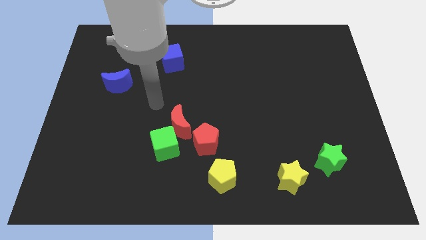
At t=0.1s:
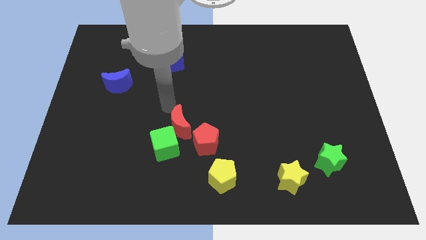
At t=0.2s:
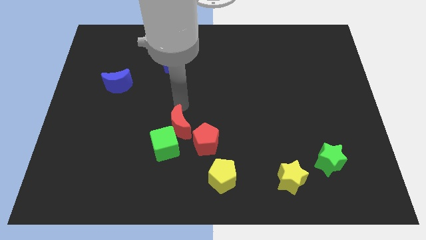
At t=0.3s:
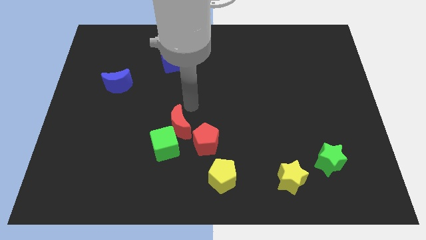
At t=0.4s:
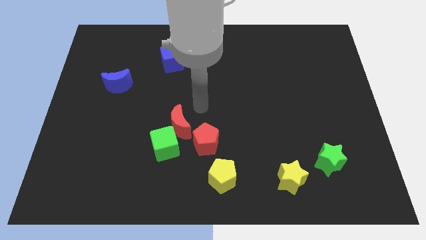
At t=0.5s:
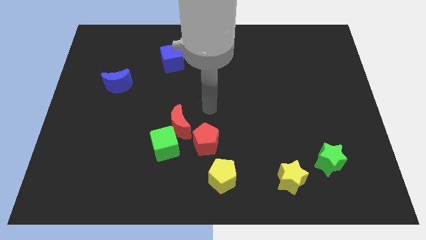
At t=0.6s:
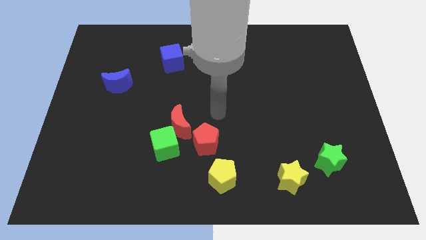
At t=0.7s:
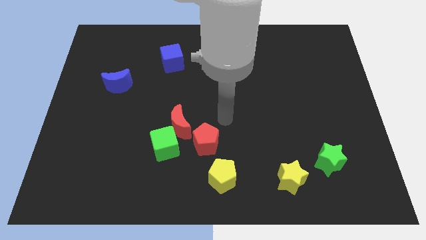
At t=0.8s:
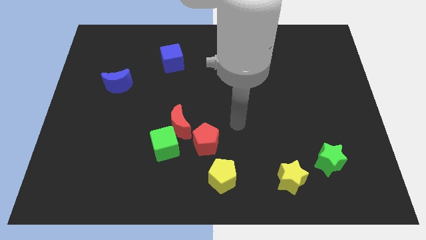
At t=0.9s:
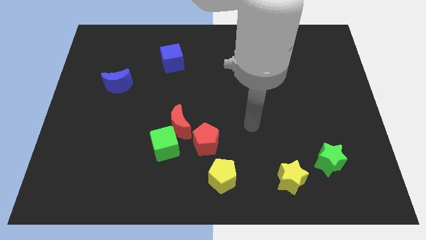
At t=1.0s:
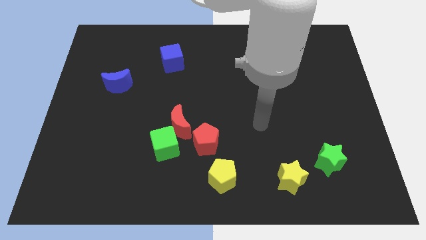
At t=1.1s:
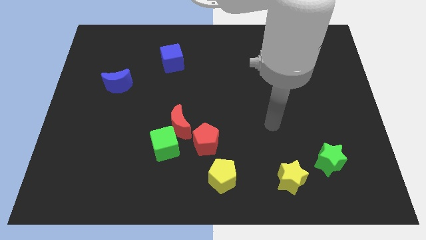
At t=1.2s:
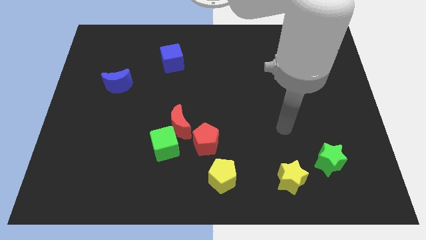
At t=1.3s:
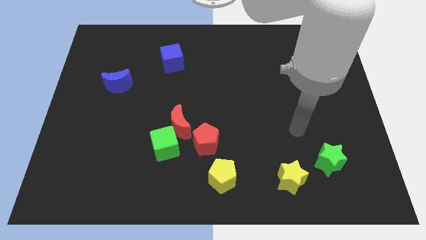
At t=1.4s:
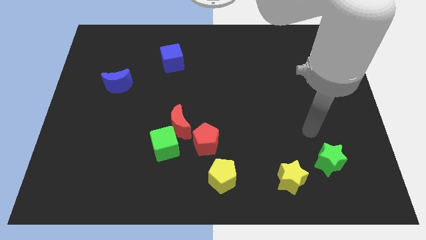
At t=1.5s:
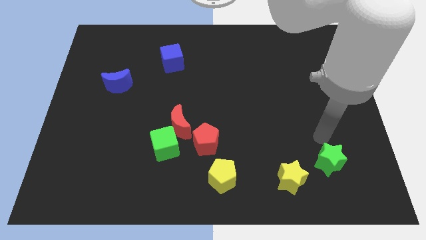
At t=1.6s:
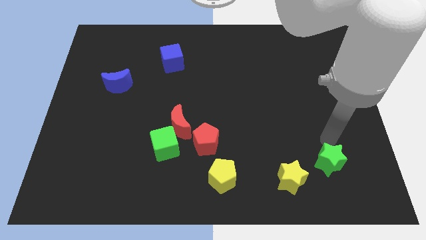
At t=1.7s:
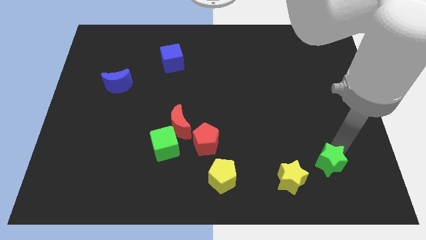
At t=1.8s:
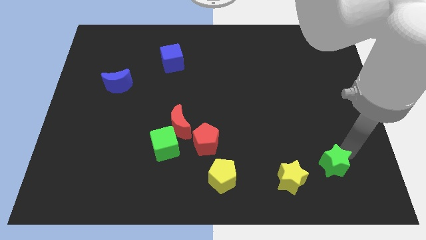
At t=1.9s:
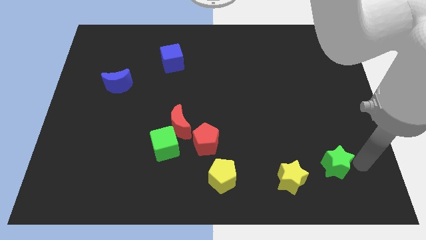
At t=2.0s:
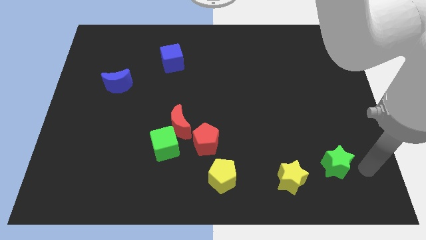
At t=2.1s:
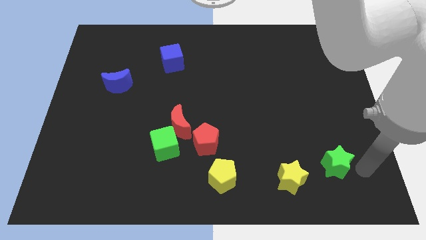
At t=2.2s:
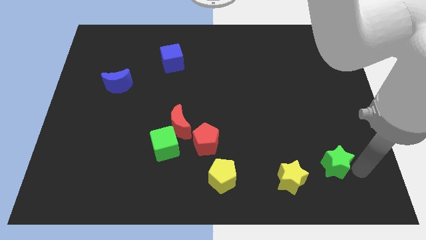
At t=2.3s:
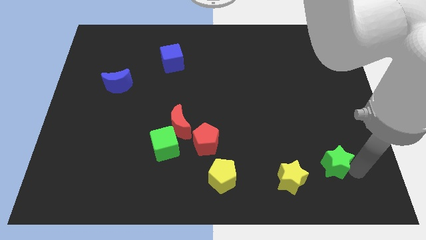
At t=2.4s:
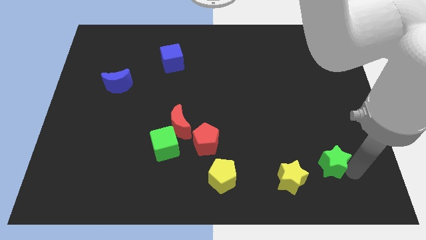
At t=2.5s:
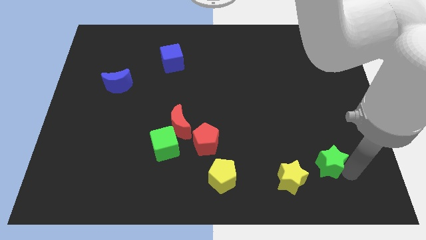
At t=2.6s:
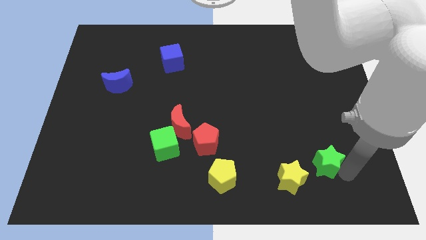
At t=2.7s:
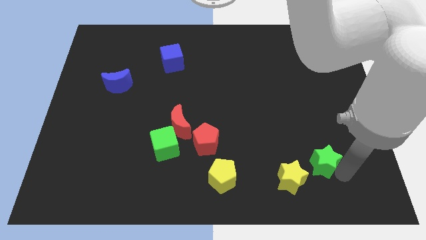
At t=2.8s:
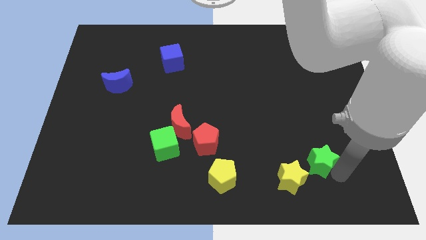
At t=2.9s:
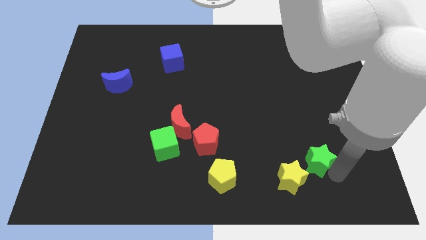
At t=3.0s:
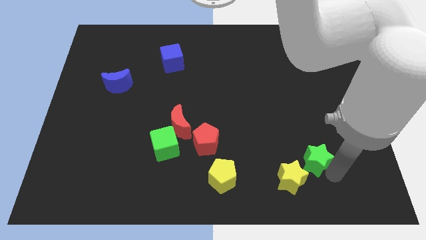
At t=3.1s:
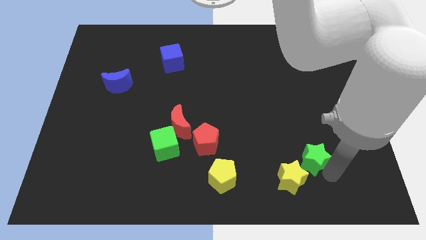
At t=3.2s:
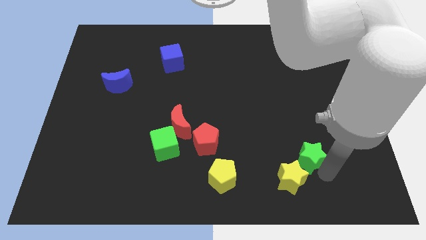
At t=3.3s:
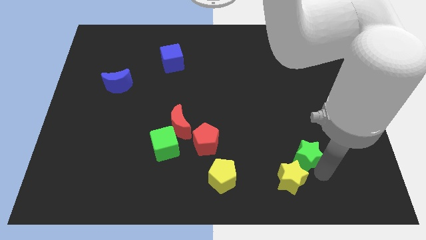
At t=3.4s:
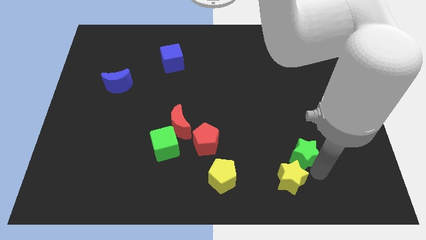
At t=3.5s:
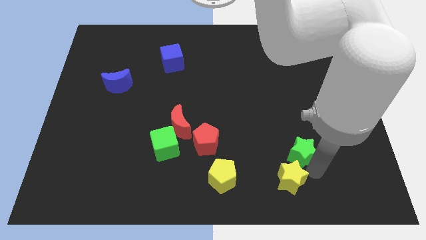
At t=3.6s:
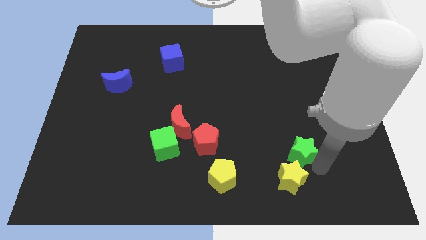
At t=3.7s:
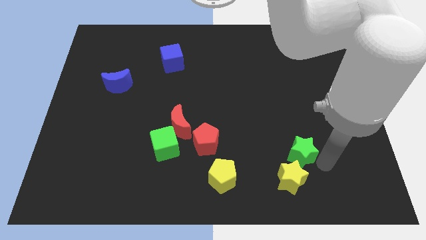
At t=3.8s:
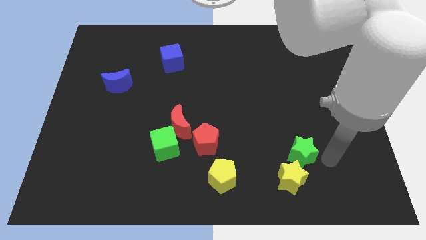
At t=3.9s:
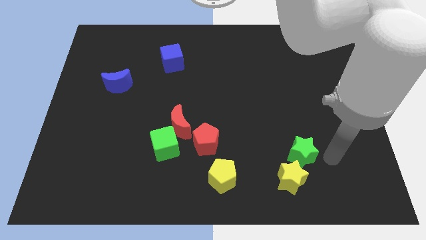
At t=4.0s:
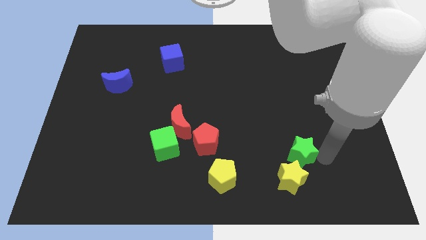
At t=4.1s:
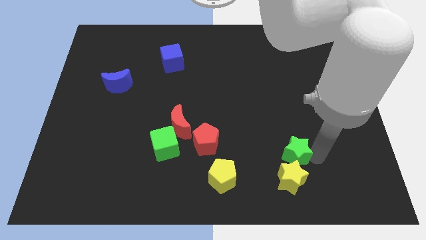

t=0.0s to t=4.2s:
push the green star left a little

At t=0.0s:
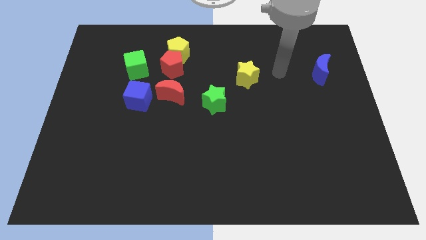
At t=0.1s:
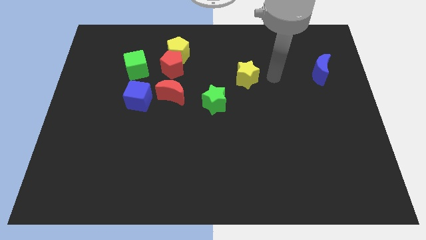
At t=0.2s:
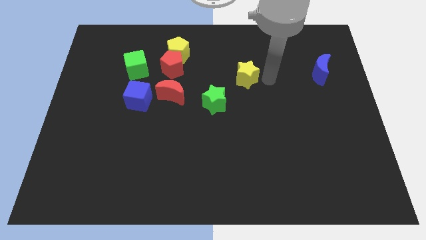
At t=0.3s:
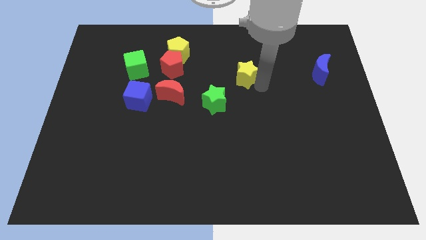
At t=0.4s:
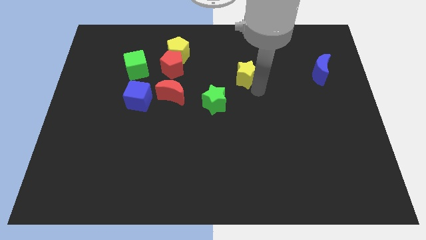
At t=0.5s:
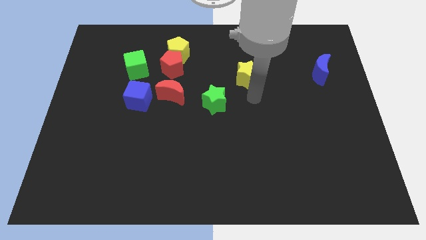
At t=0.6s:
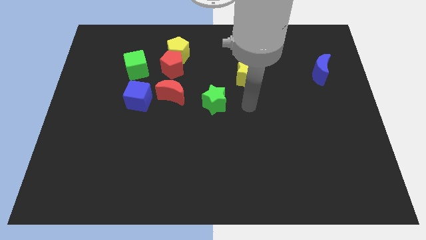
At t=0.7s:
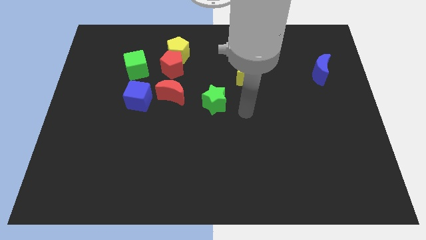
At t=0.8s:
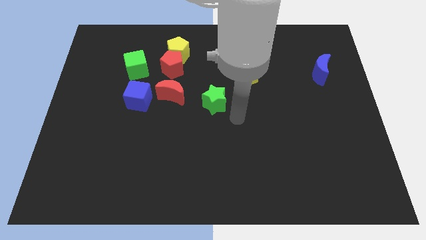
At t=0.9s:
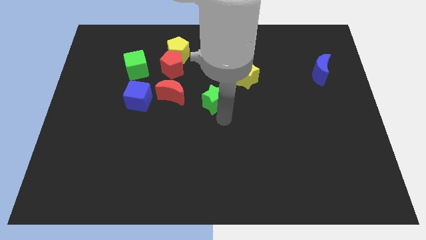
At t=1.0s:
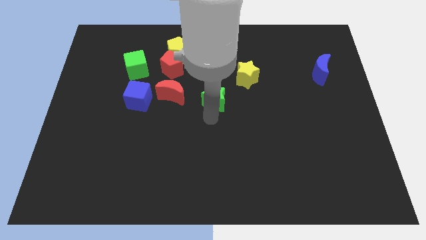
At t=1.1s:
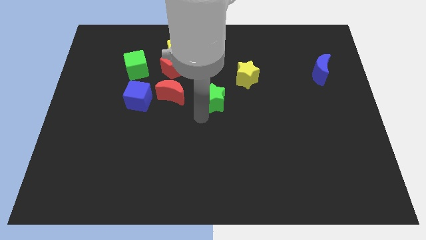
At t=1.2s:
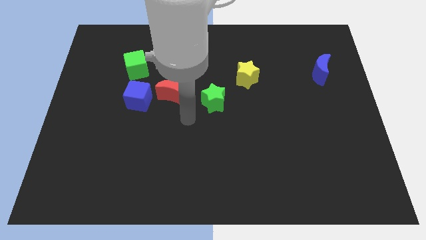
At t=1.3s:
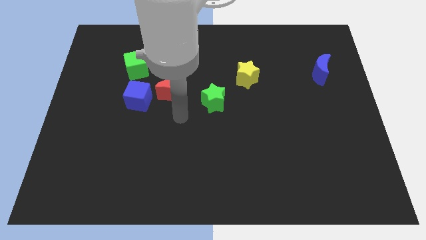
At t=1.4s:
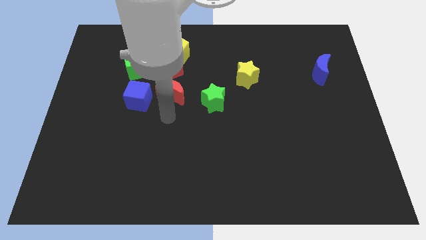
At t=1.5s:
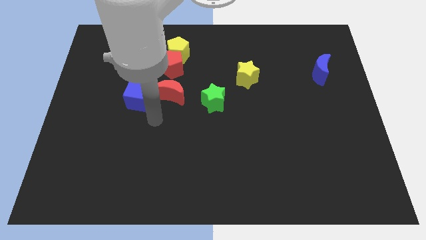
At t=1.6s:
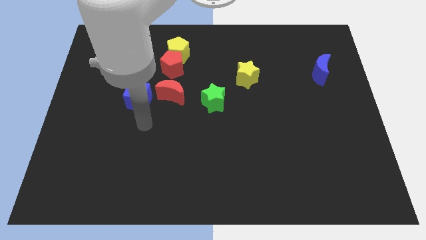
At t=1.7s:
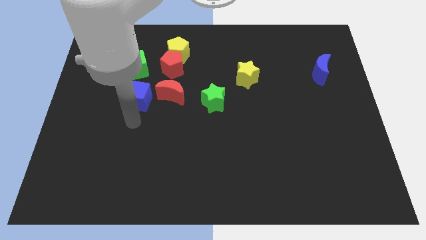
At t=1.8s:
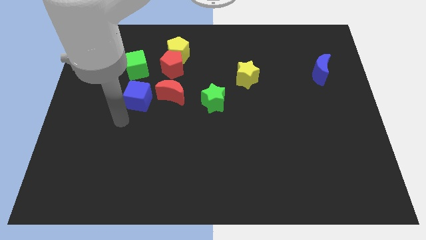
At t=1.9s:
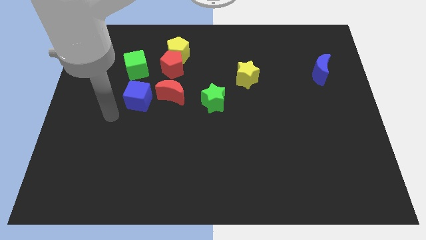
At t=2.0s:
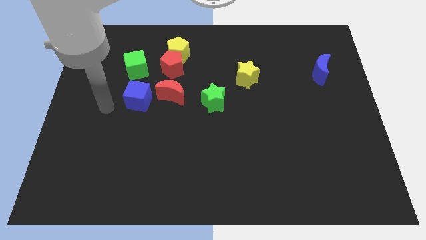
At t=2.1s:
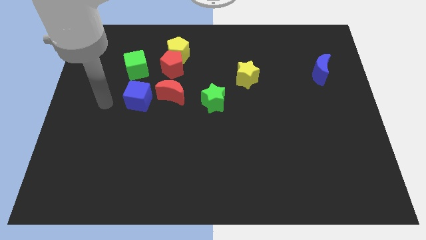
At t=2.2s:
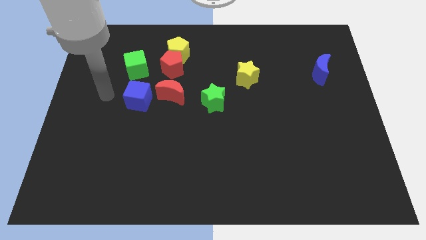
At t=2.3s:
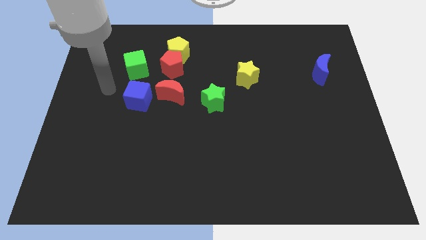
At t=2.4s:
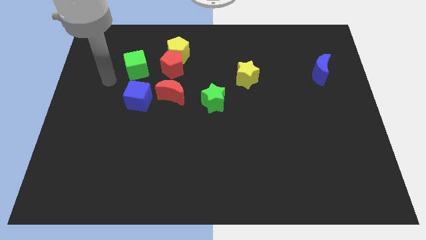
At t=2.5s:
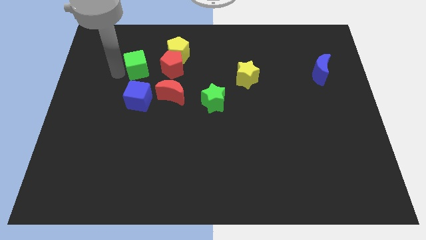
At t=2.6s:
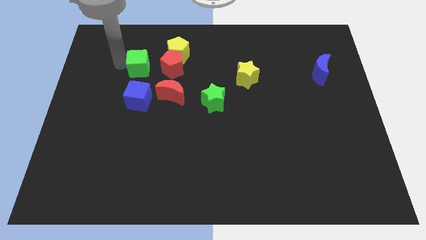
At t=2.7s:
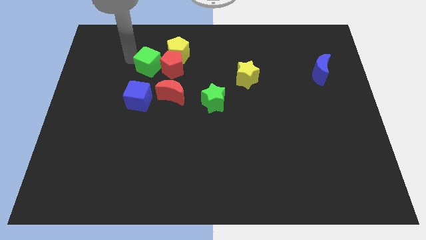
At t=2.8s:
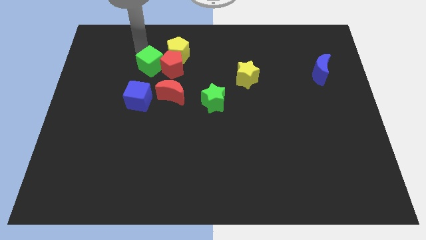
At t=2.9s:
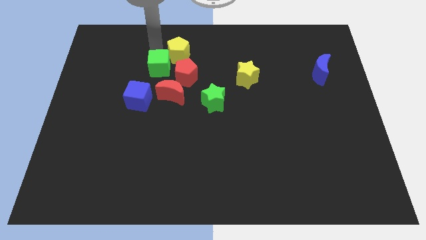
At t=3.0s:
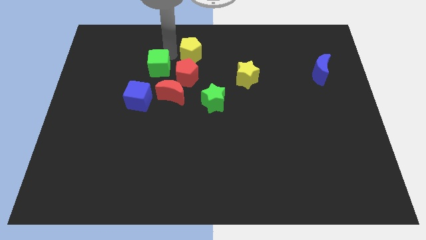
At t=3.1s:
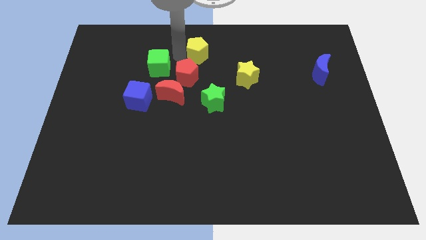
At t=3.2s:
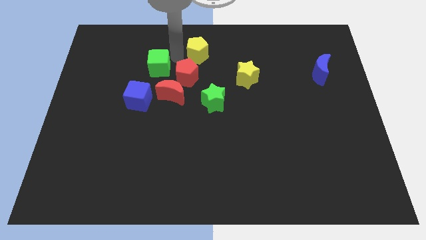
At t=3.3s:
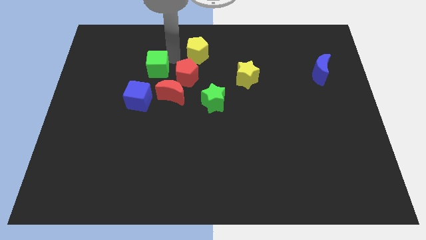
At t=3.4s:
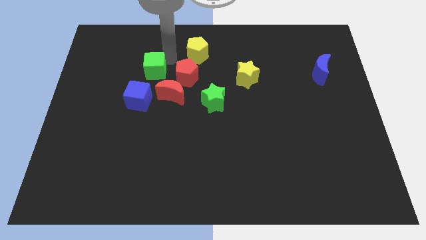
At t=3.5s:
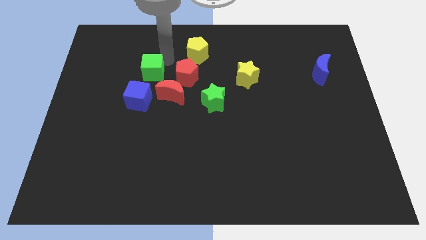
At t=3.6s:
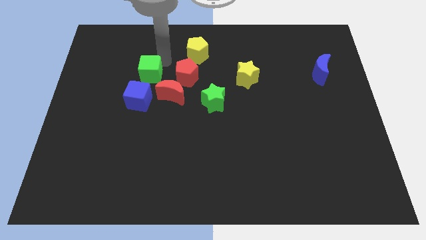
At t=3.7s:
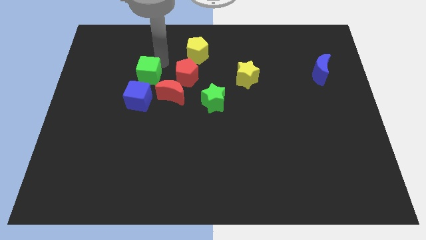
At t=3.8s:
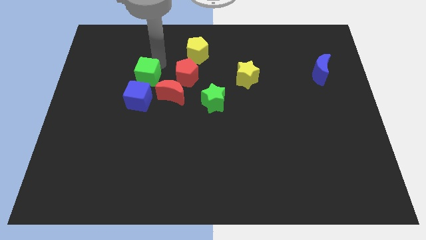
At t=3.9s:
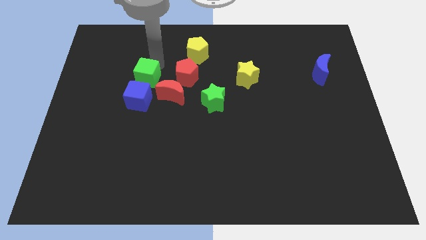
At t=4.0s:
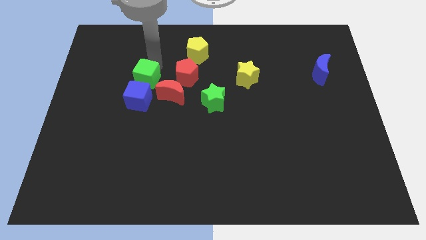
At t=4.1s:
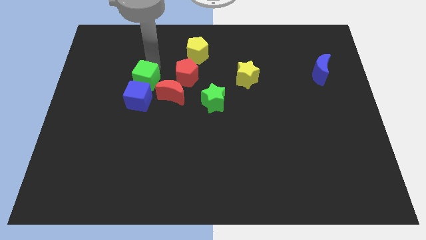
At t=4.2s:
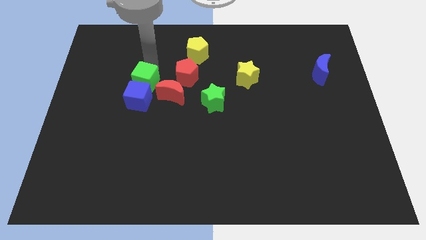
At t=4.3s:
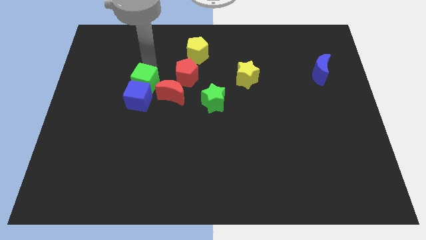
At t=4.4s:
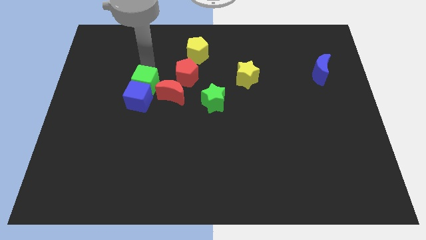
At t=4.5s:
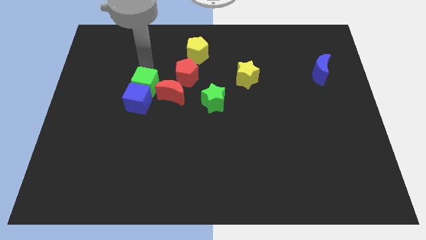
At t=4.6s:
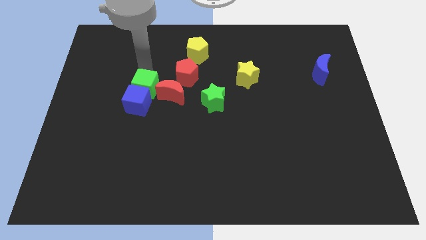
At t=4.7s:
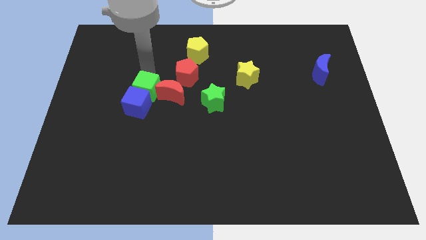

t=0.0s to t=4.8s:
move the green cube down a little bit
